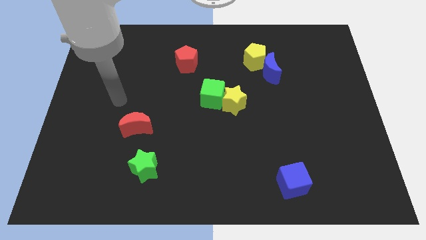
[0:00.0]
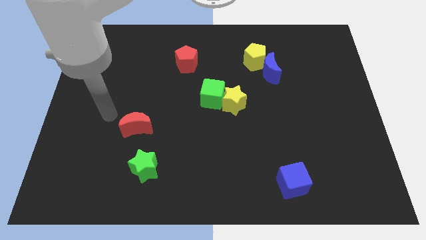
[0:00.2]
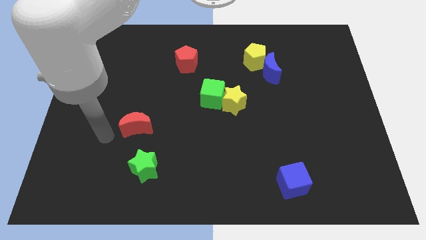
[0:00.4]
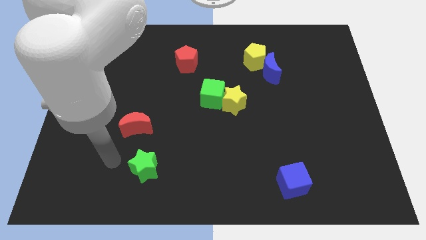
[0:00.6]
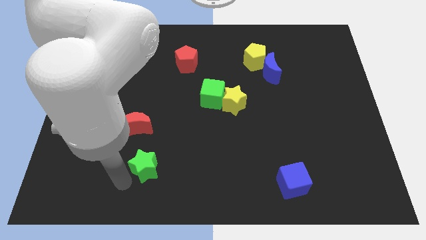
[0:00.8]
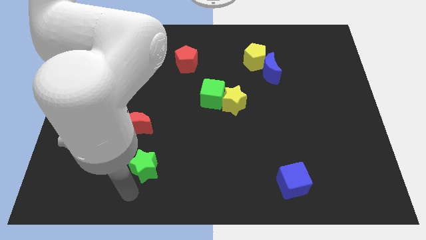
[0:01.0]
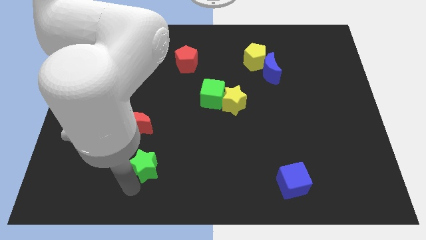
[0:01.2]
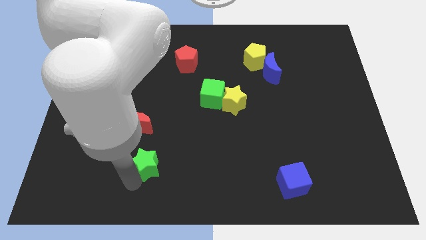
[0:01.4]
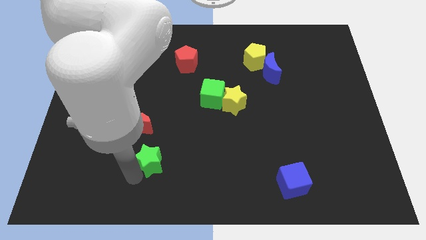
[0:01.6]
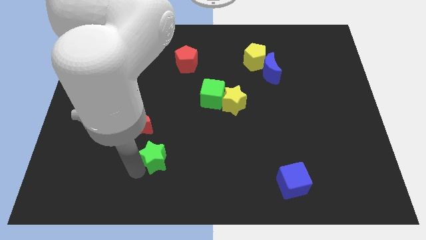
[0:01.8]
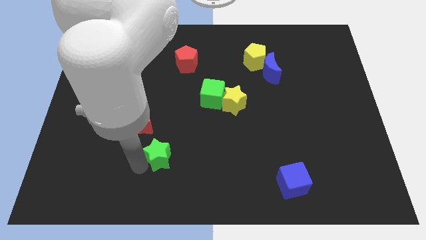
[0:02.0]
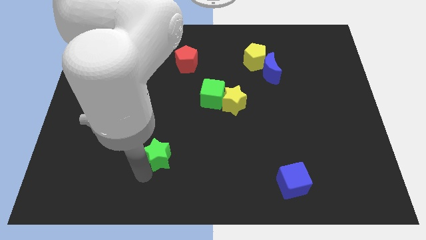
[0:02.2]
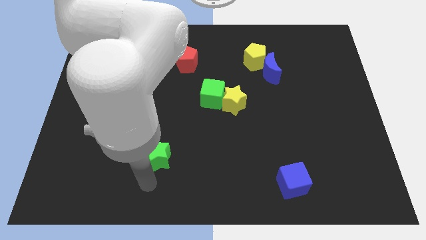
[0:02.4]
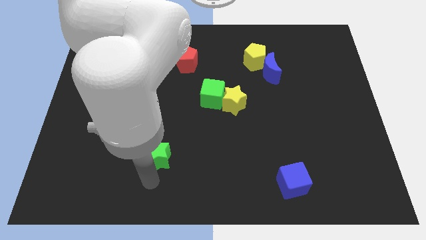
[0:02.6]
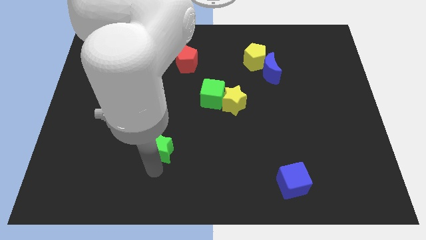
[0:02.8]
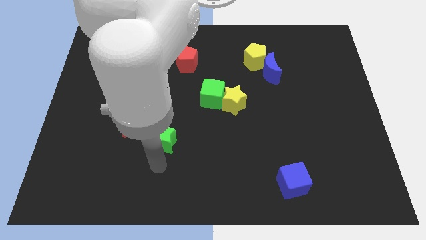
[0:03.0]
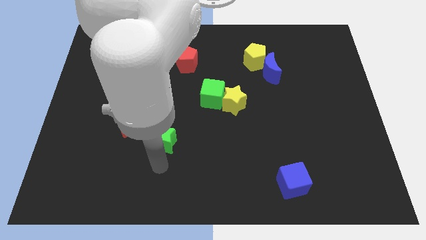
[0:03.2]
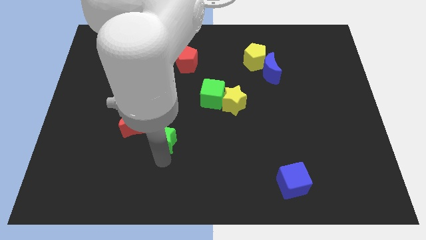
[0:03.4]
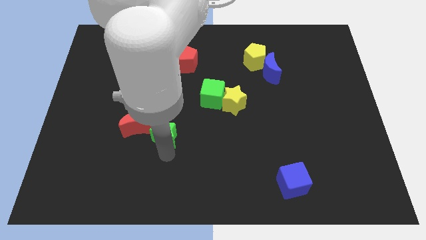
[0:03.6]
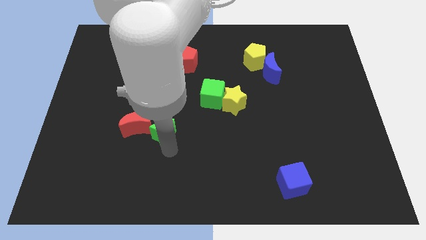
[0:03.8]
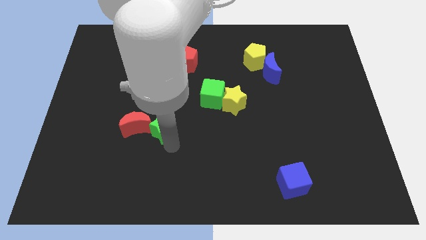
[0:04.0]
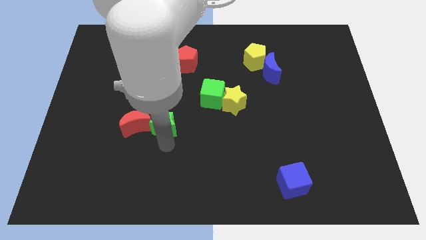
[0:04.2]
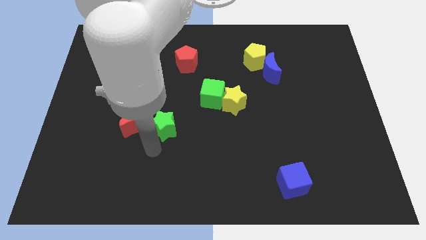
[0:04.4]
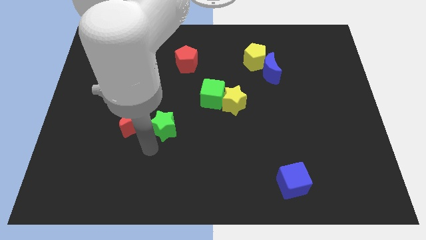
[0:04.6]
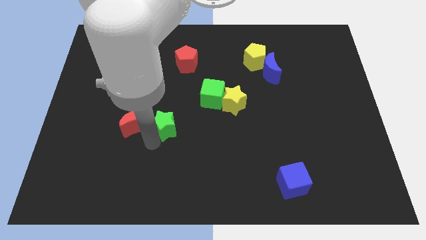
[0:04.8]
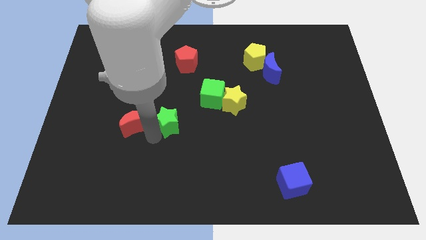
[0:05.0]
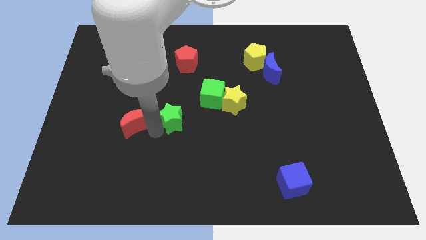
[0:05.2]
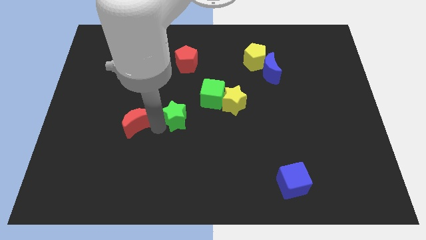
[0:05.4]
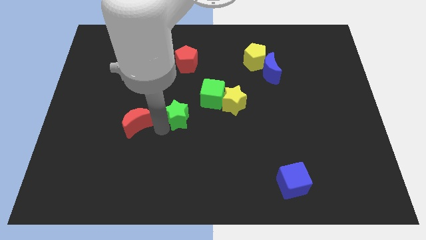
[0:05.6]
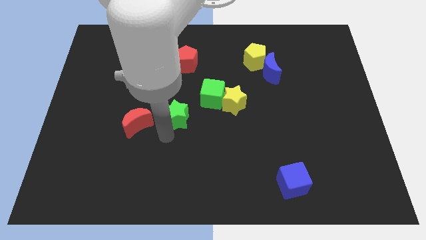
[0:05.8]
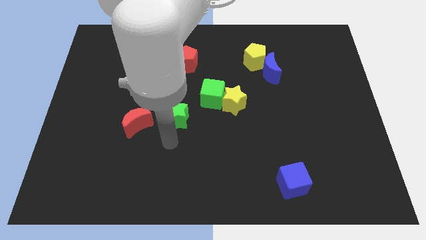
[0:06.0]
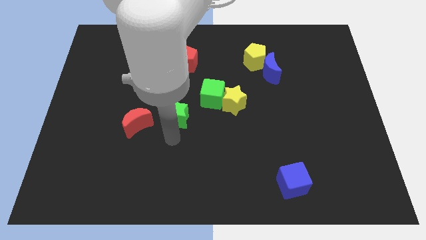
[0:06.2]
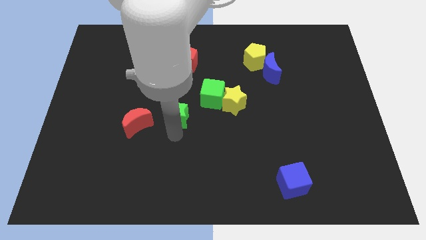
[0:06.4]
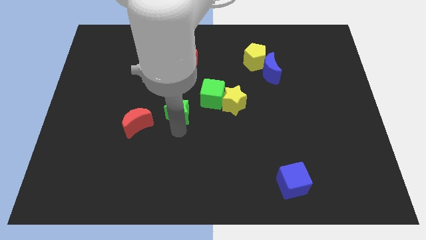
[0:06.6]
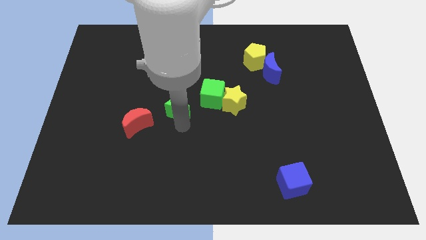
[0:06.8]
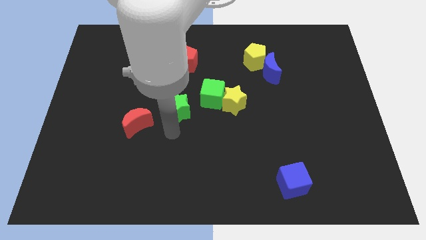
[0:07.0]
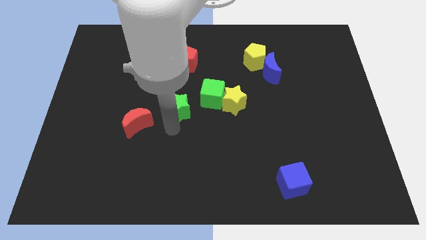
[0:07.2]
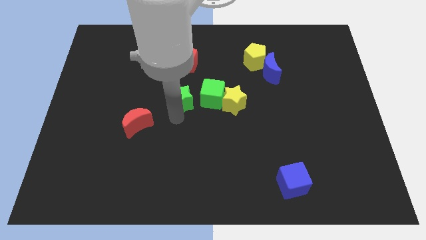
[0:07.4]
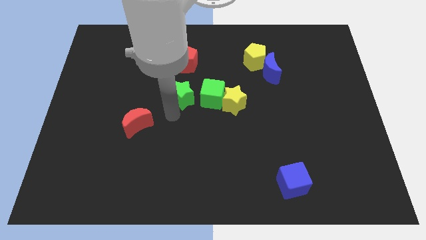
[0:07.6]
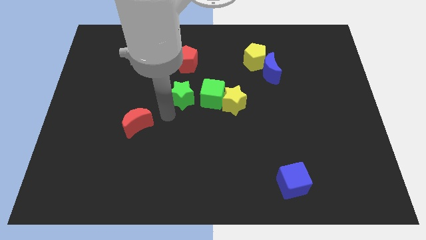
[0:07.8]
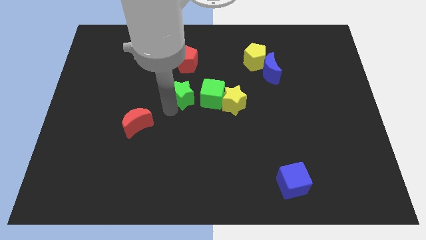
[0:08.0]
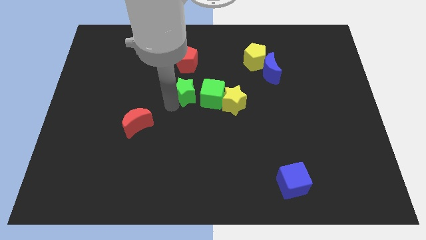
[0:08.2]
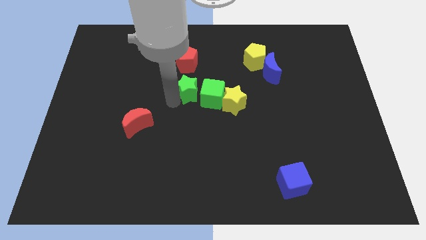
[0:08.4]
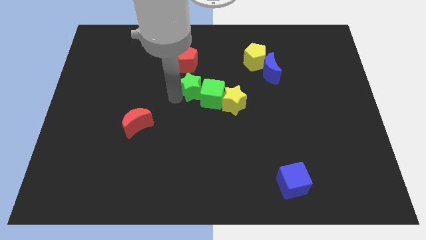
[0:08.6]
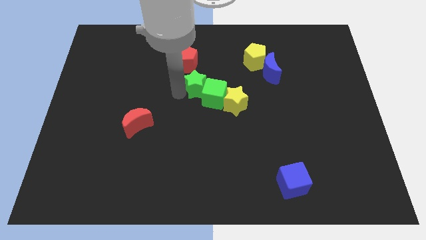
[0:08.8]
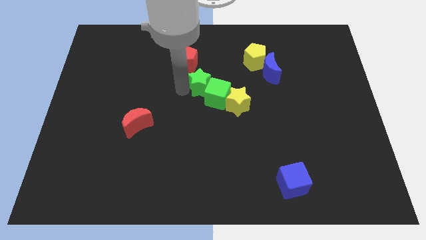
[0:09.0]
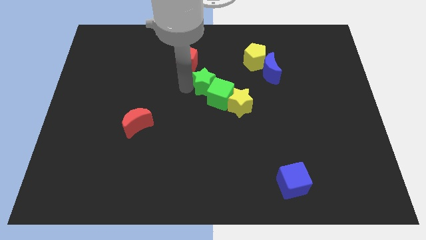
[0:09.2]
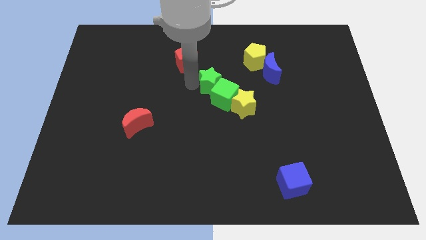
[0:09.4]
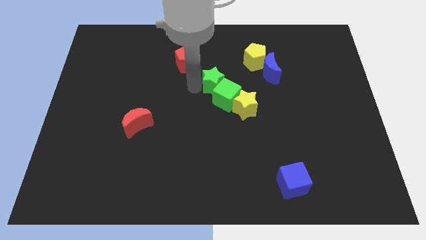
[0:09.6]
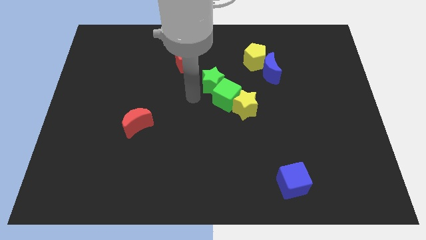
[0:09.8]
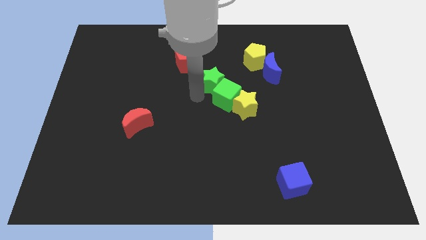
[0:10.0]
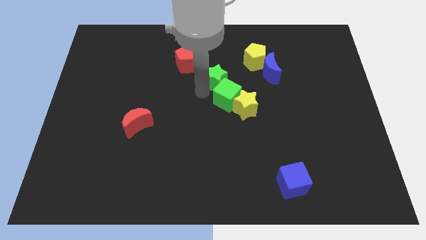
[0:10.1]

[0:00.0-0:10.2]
move the green star to the left side of the blue moon

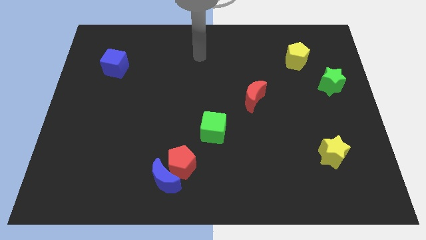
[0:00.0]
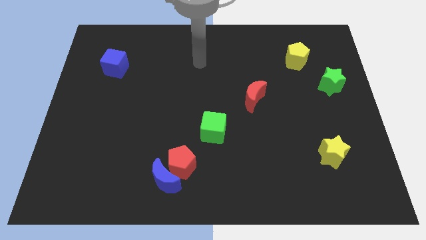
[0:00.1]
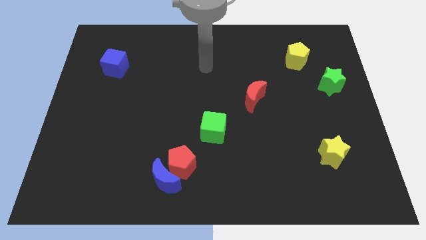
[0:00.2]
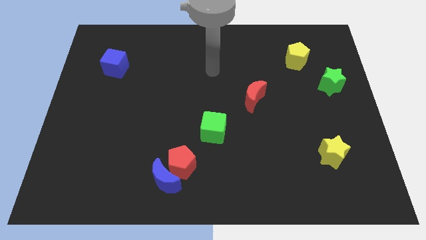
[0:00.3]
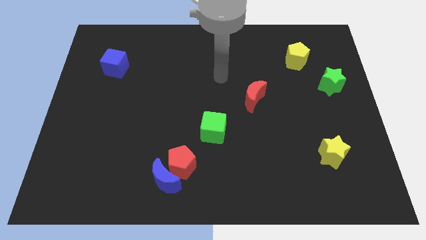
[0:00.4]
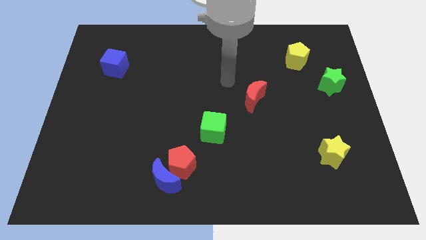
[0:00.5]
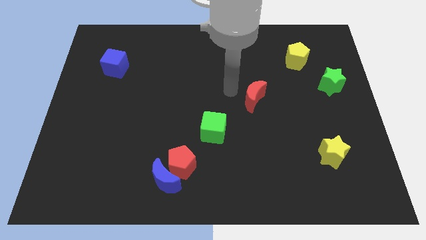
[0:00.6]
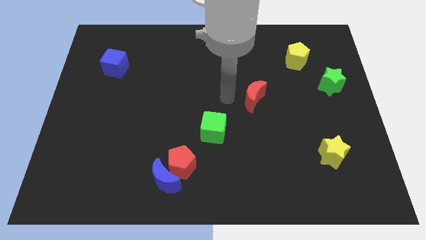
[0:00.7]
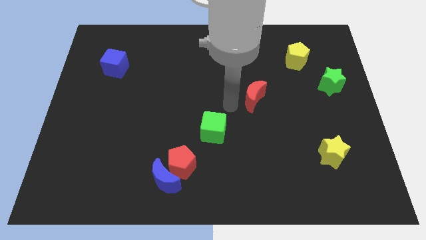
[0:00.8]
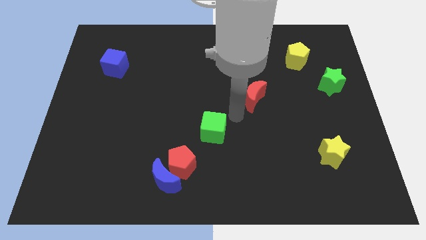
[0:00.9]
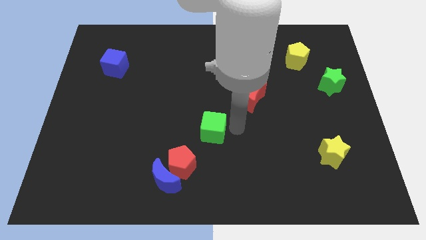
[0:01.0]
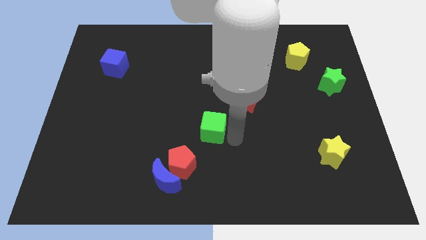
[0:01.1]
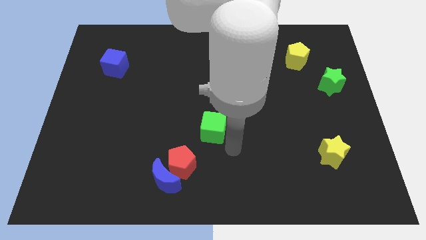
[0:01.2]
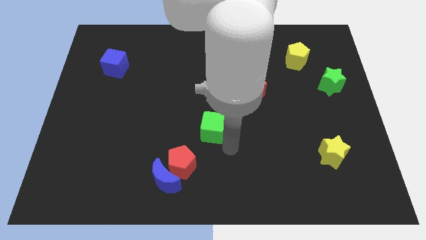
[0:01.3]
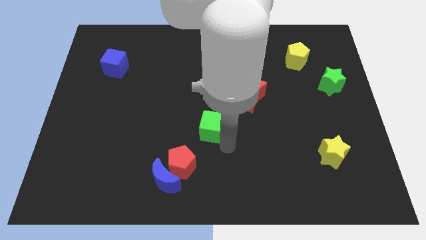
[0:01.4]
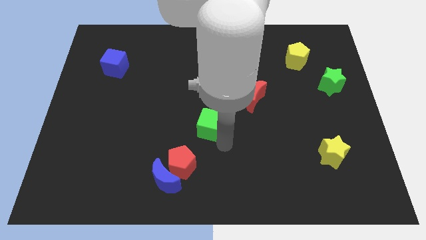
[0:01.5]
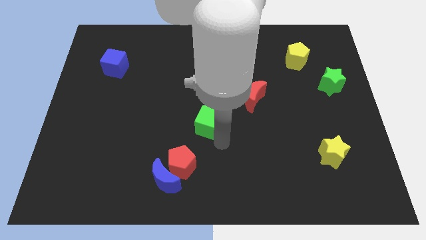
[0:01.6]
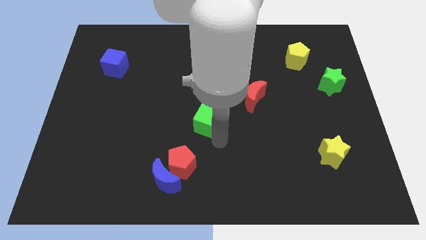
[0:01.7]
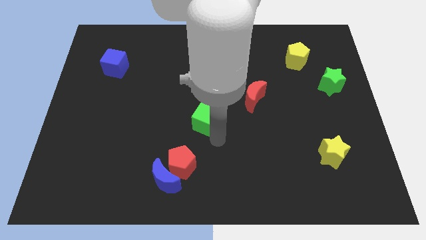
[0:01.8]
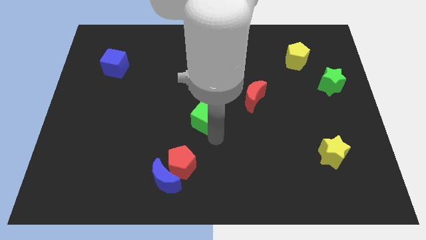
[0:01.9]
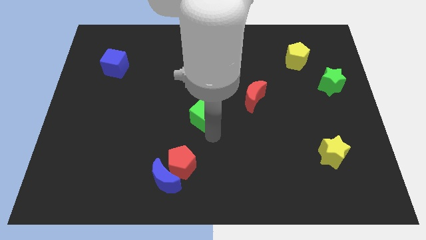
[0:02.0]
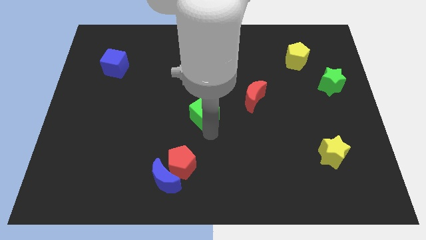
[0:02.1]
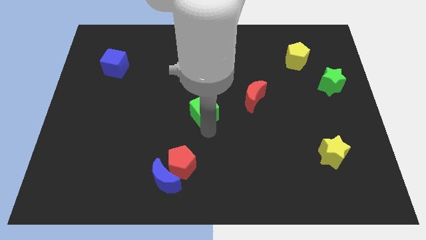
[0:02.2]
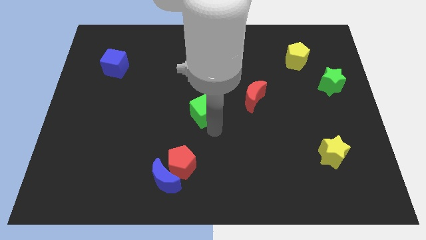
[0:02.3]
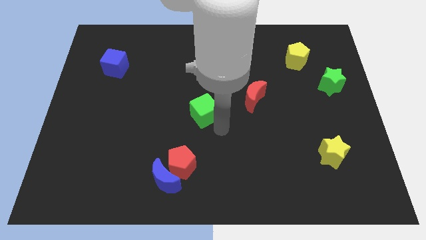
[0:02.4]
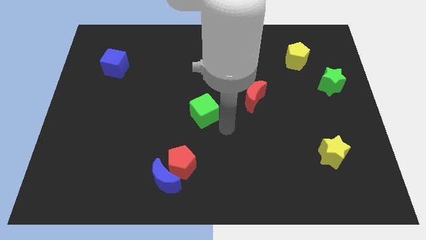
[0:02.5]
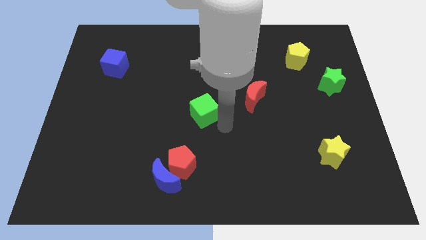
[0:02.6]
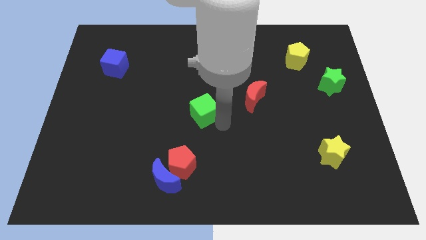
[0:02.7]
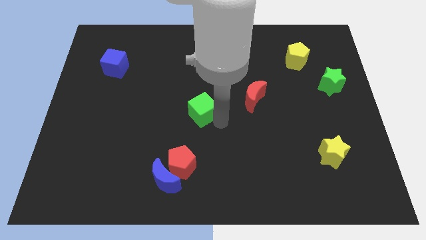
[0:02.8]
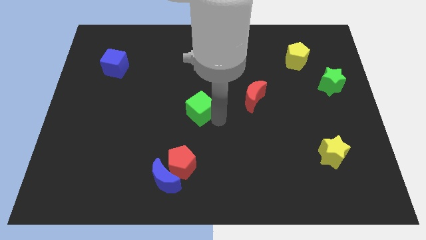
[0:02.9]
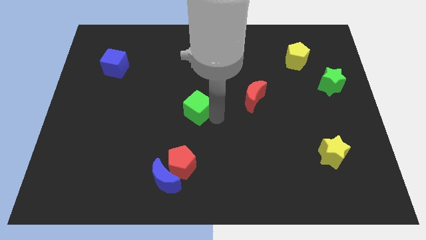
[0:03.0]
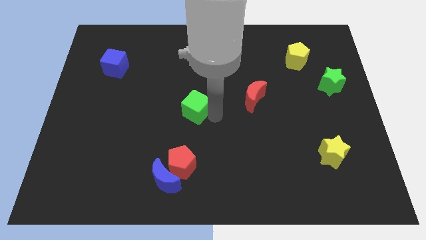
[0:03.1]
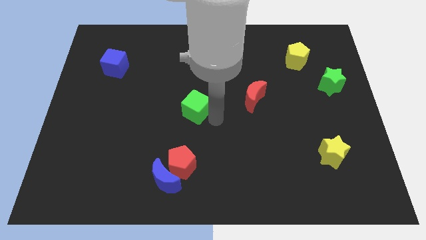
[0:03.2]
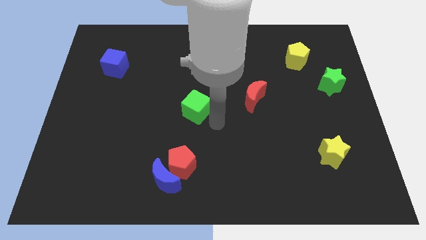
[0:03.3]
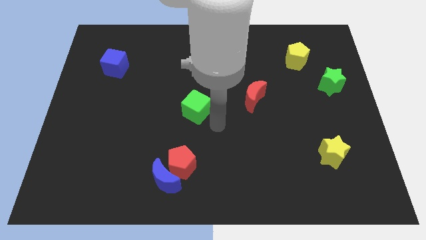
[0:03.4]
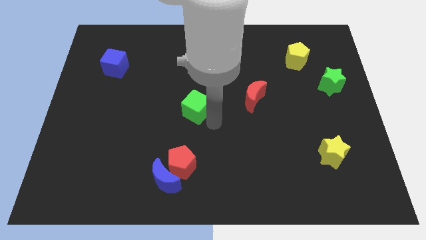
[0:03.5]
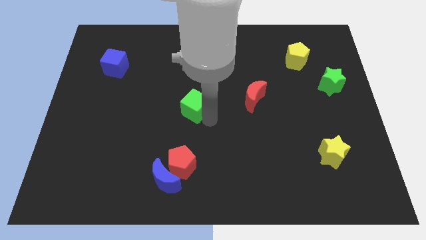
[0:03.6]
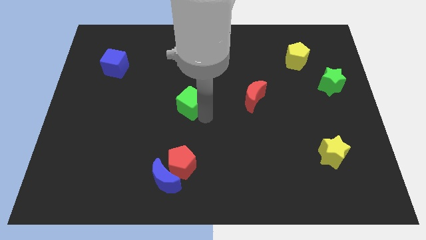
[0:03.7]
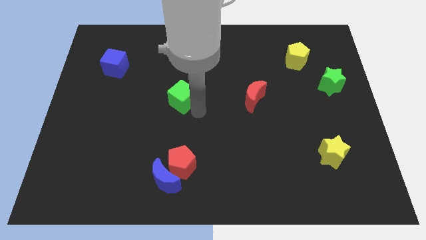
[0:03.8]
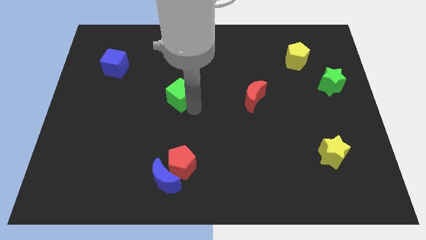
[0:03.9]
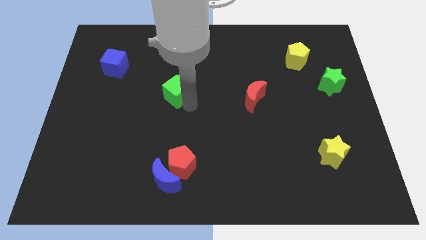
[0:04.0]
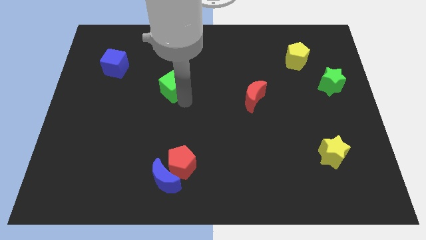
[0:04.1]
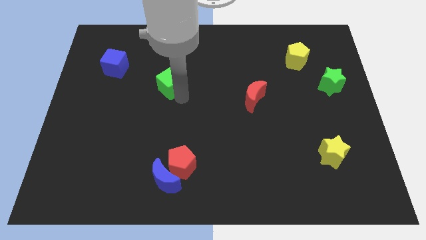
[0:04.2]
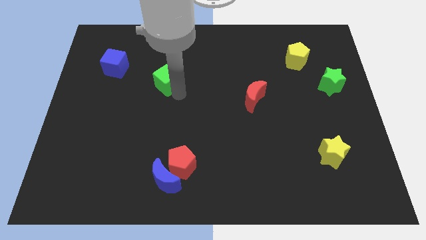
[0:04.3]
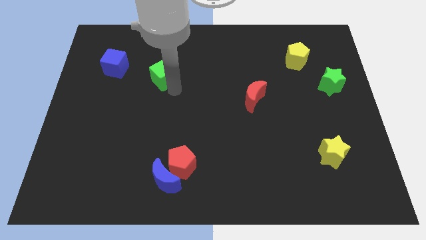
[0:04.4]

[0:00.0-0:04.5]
put the green cube to the right of the blue cube
